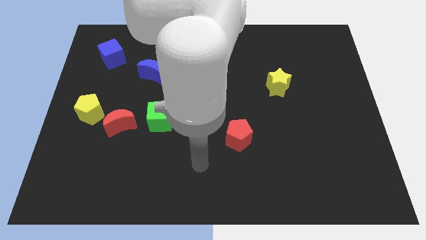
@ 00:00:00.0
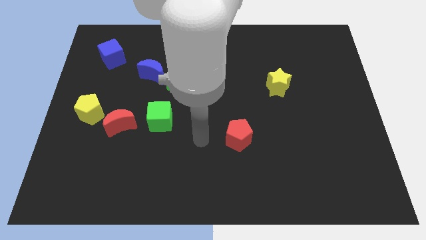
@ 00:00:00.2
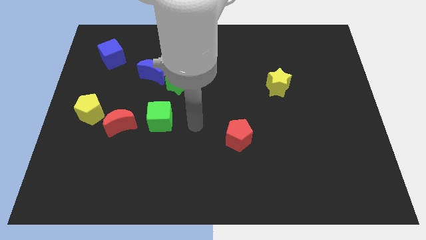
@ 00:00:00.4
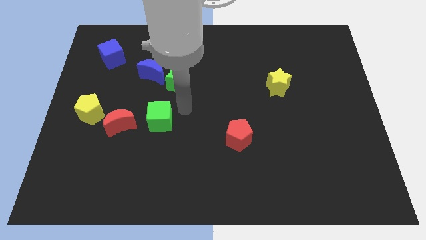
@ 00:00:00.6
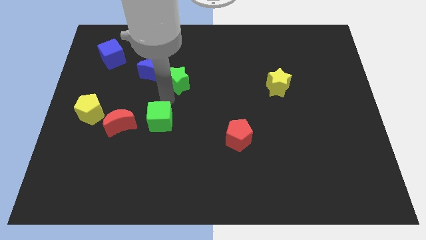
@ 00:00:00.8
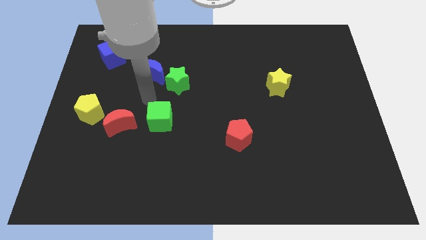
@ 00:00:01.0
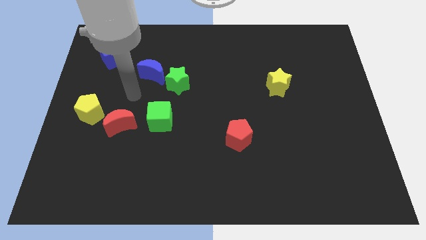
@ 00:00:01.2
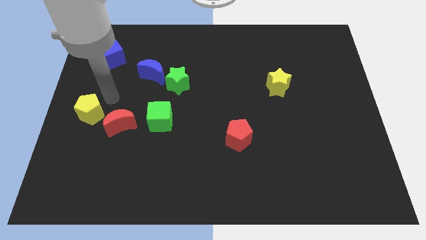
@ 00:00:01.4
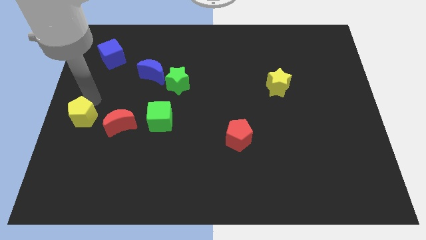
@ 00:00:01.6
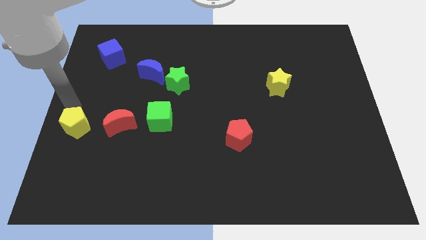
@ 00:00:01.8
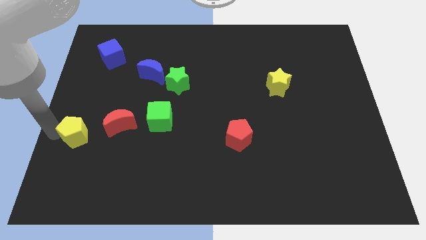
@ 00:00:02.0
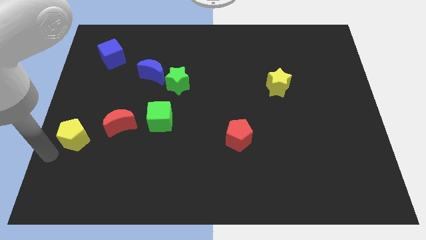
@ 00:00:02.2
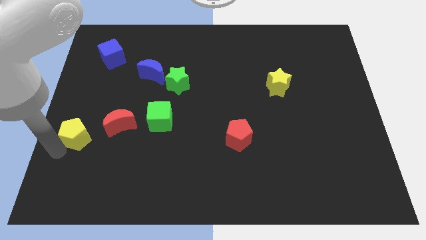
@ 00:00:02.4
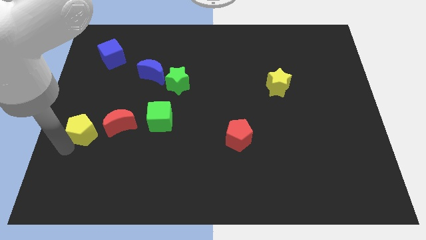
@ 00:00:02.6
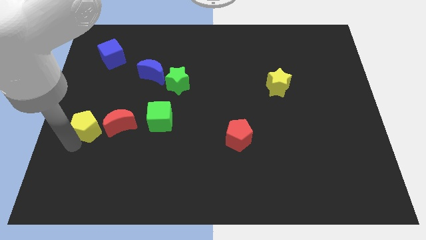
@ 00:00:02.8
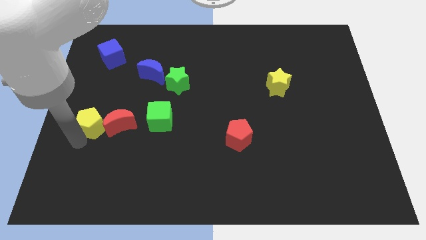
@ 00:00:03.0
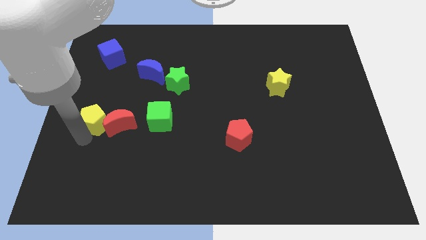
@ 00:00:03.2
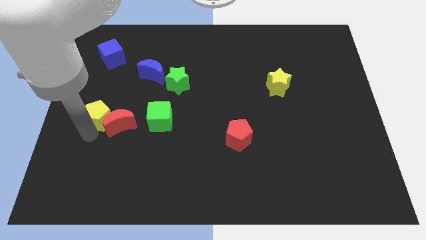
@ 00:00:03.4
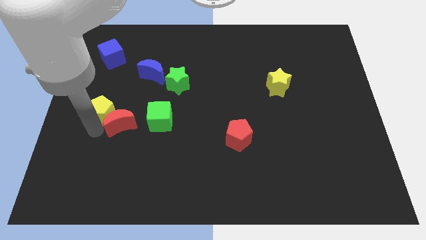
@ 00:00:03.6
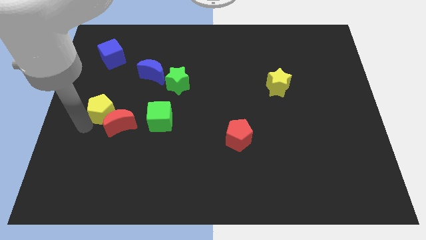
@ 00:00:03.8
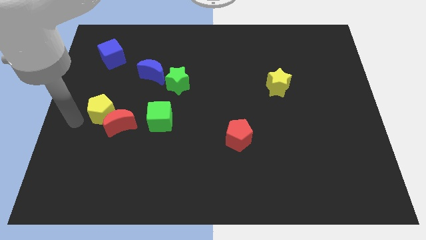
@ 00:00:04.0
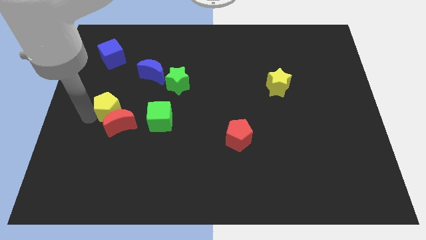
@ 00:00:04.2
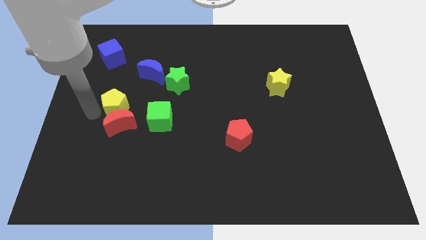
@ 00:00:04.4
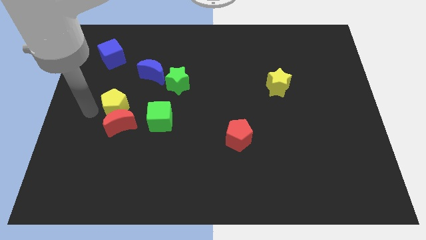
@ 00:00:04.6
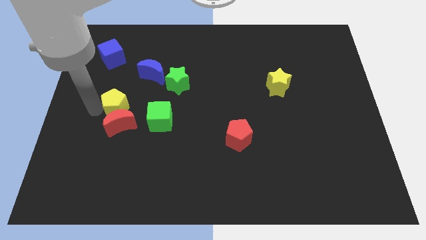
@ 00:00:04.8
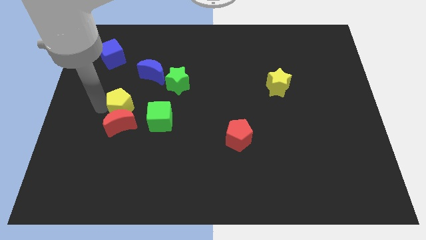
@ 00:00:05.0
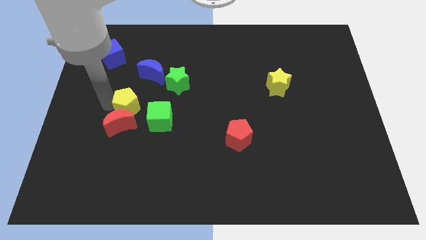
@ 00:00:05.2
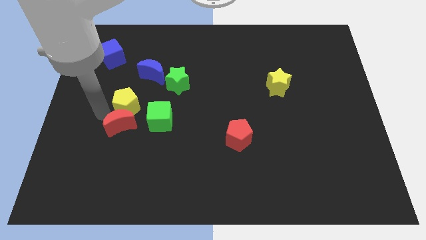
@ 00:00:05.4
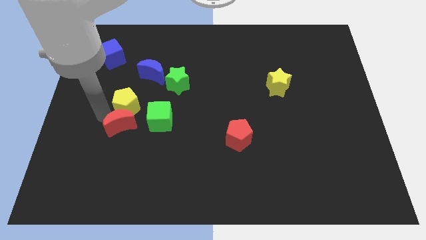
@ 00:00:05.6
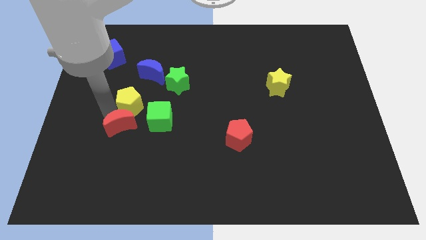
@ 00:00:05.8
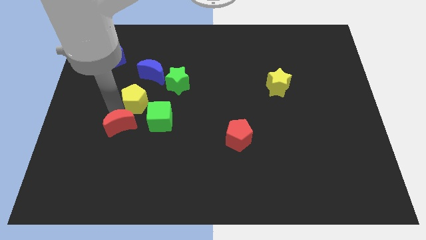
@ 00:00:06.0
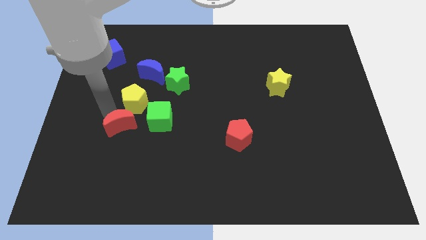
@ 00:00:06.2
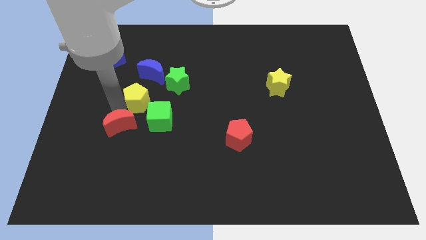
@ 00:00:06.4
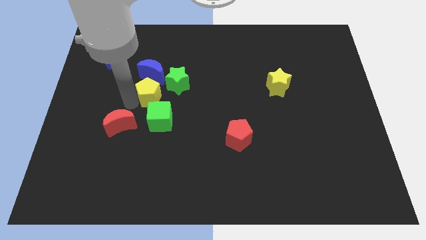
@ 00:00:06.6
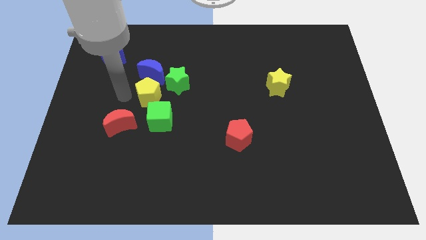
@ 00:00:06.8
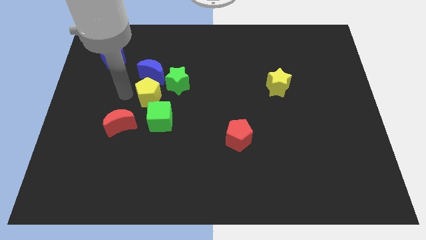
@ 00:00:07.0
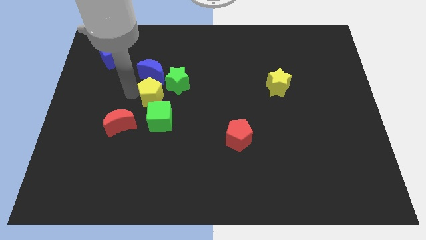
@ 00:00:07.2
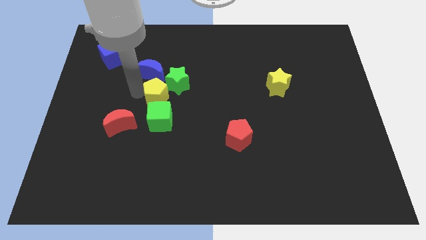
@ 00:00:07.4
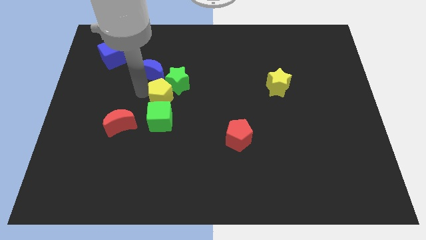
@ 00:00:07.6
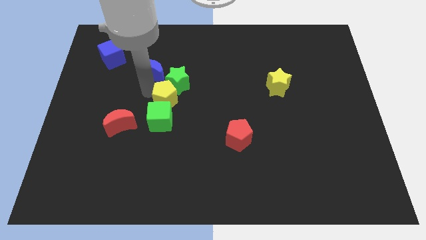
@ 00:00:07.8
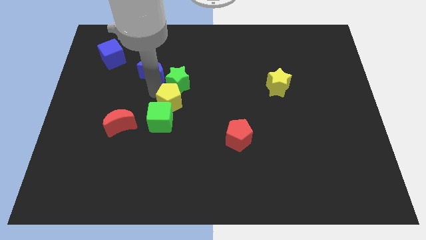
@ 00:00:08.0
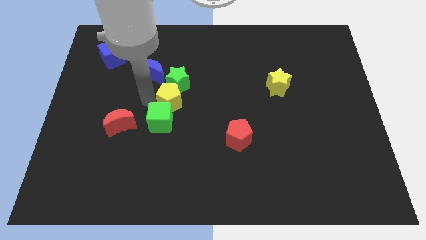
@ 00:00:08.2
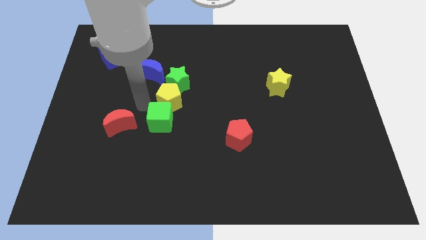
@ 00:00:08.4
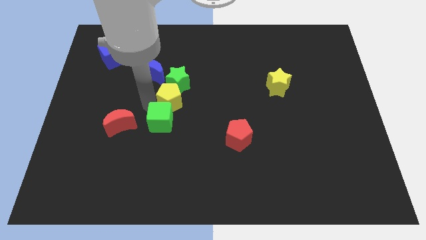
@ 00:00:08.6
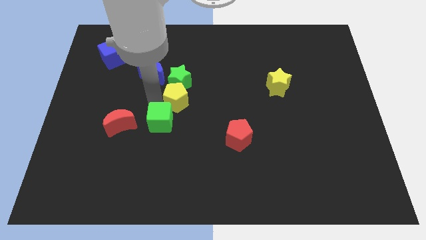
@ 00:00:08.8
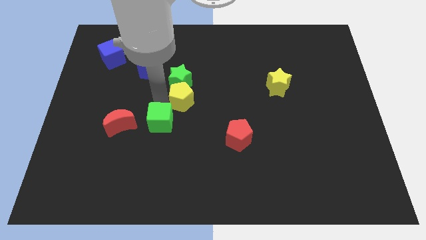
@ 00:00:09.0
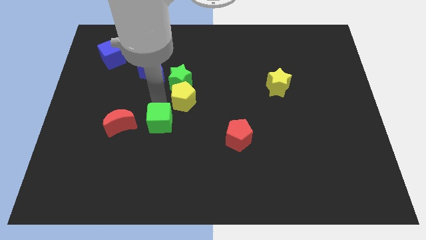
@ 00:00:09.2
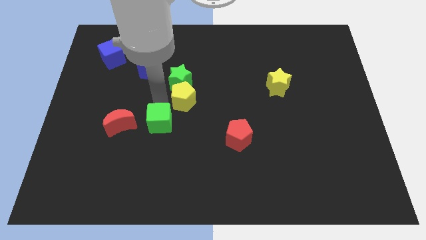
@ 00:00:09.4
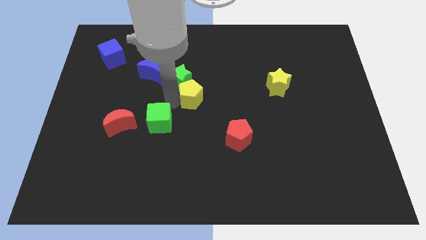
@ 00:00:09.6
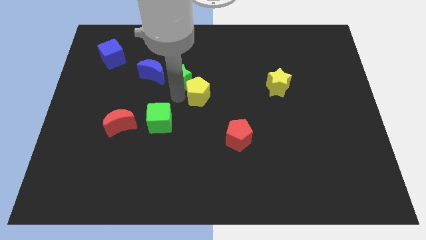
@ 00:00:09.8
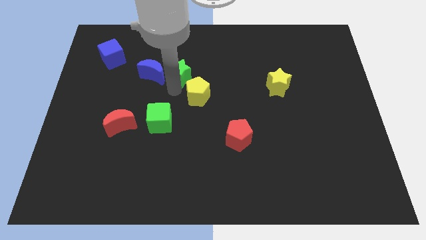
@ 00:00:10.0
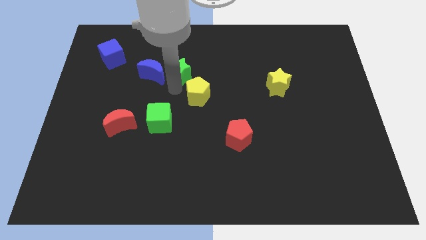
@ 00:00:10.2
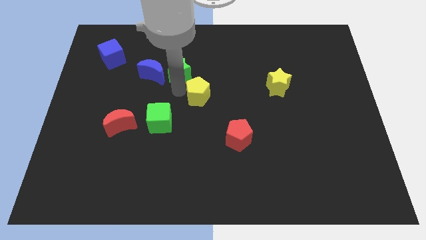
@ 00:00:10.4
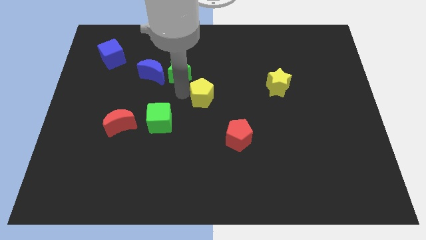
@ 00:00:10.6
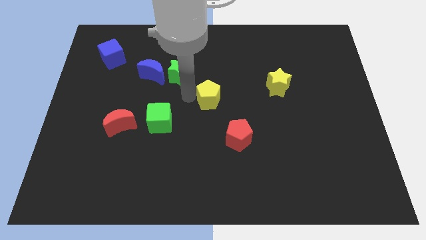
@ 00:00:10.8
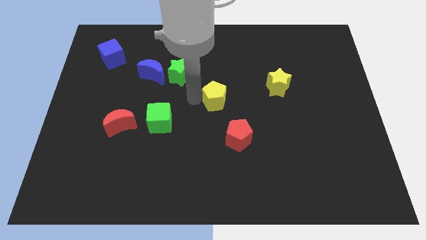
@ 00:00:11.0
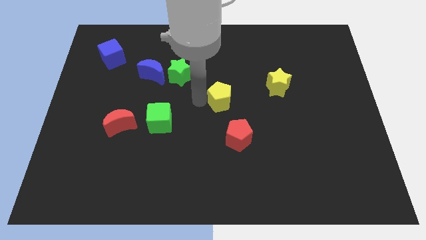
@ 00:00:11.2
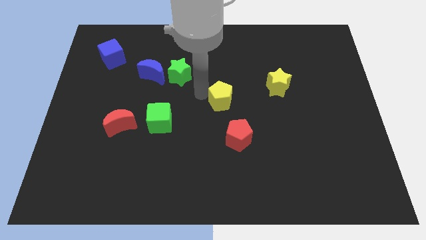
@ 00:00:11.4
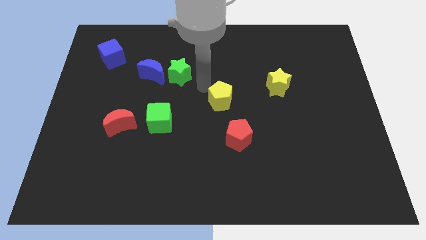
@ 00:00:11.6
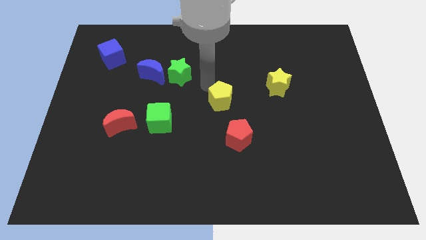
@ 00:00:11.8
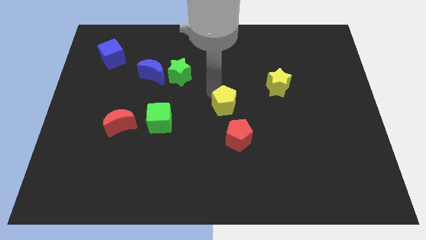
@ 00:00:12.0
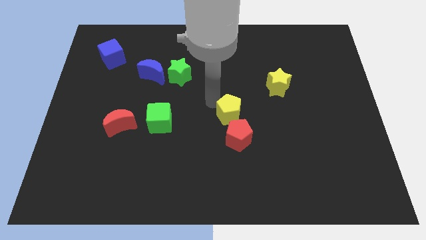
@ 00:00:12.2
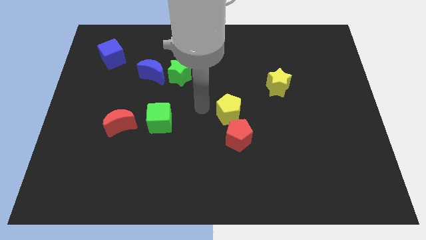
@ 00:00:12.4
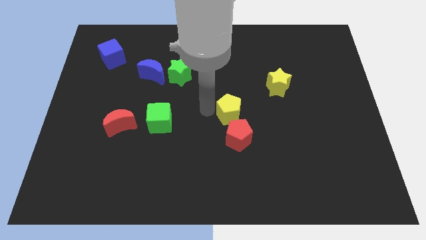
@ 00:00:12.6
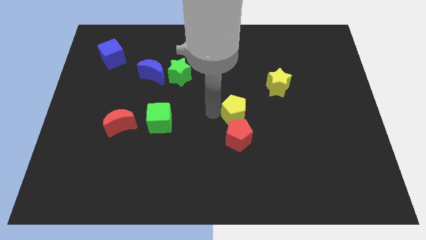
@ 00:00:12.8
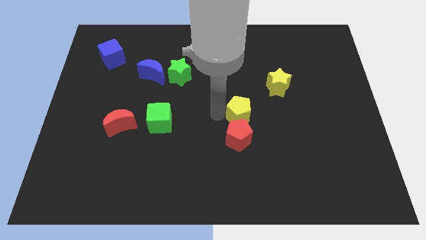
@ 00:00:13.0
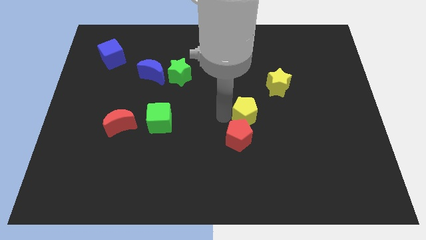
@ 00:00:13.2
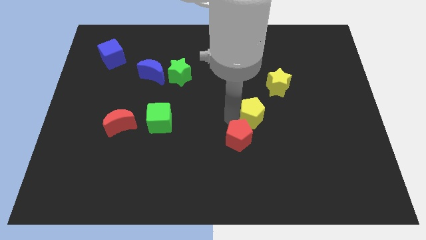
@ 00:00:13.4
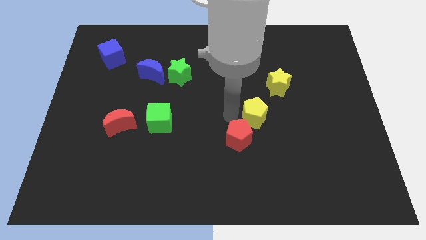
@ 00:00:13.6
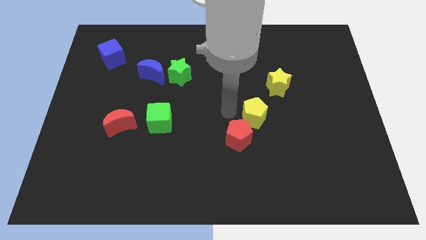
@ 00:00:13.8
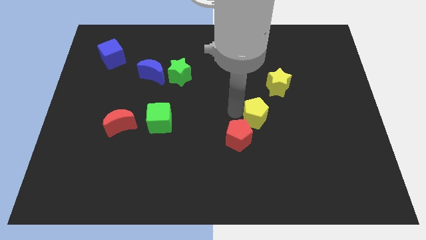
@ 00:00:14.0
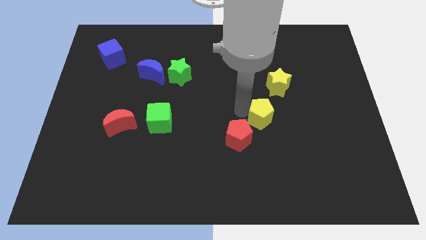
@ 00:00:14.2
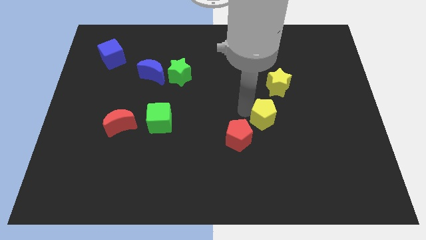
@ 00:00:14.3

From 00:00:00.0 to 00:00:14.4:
slide the yellow pentagon to the bottom side of the yellow star
